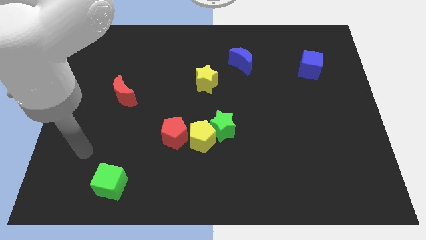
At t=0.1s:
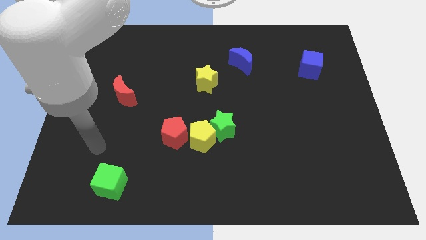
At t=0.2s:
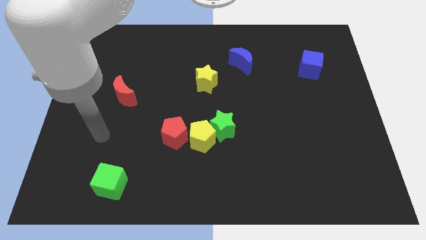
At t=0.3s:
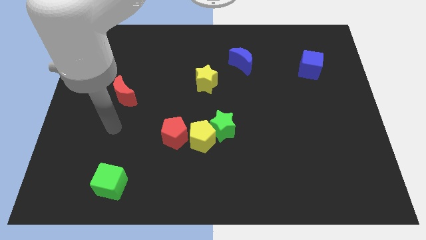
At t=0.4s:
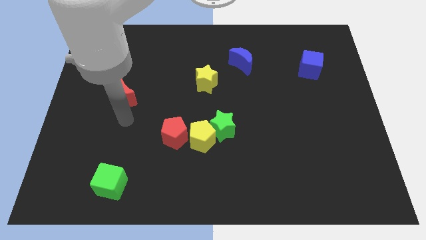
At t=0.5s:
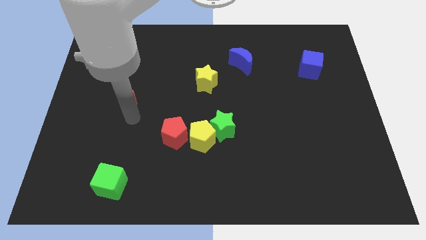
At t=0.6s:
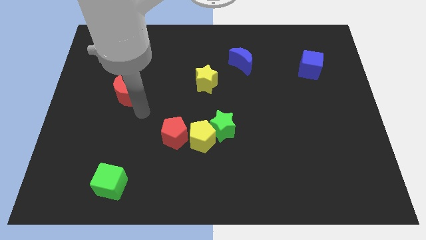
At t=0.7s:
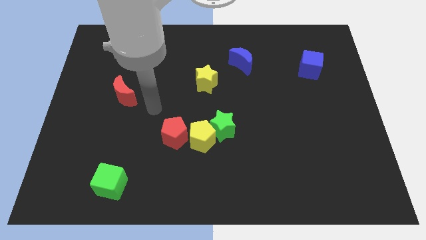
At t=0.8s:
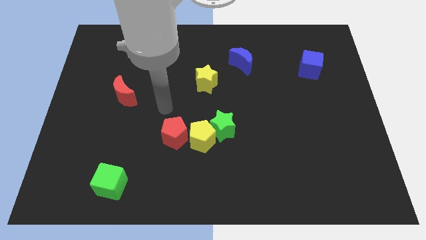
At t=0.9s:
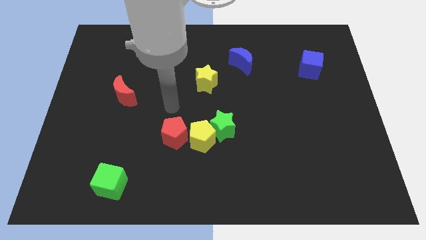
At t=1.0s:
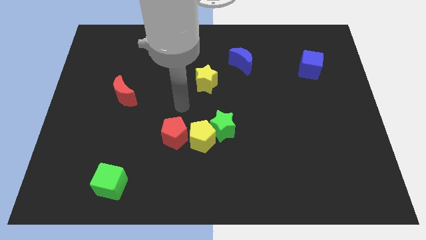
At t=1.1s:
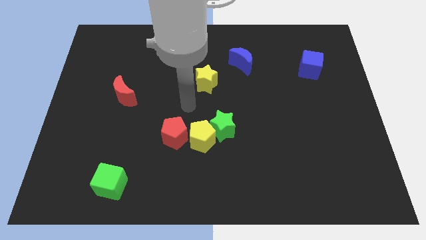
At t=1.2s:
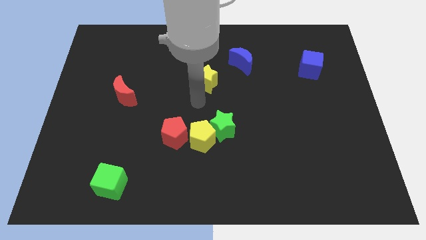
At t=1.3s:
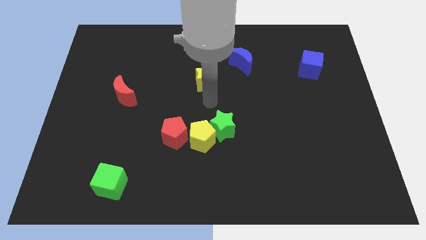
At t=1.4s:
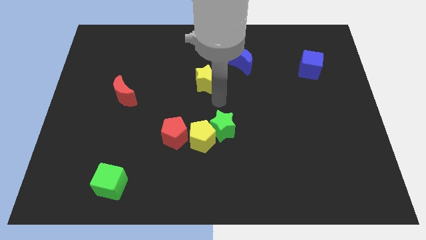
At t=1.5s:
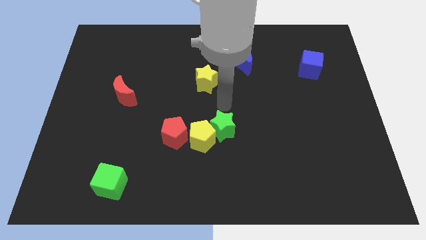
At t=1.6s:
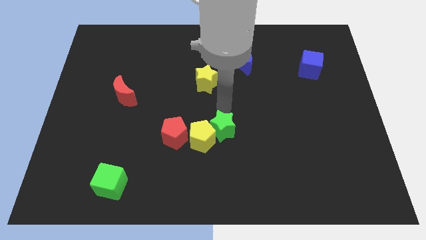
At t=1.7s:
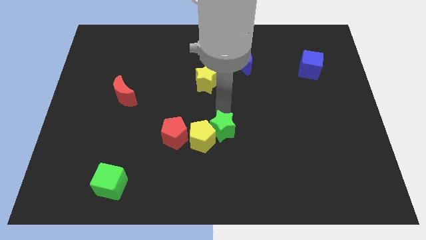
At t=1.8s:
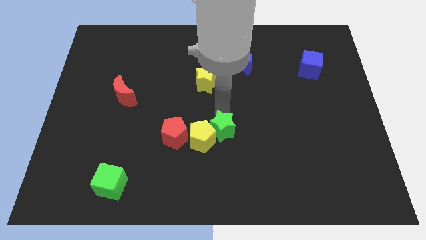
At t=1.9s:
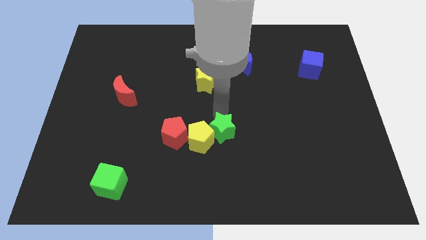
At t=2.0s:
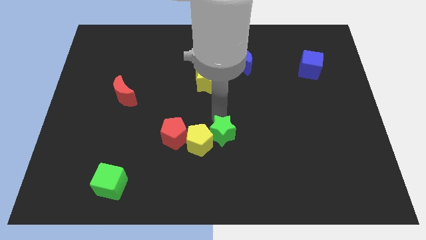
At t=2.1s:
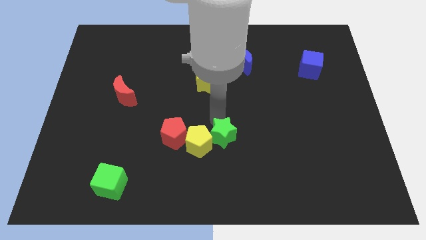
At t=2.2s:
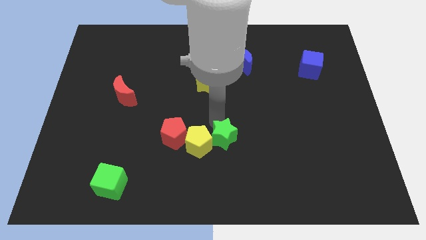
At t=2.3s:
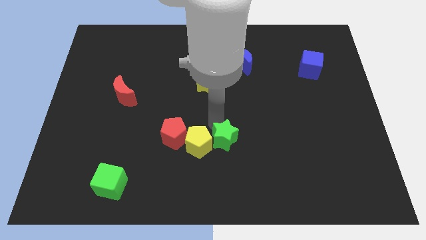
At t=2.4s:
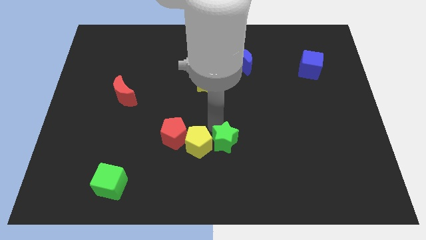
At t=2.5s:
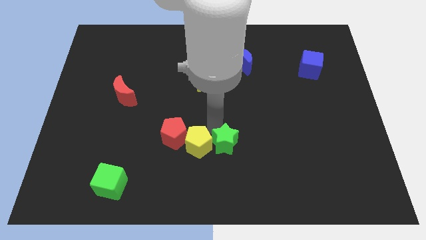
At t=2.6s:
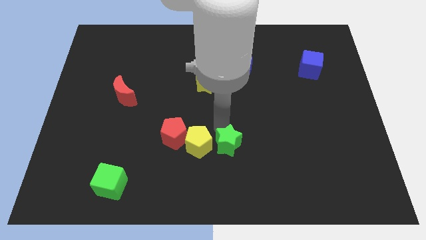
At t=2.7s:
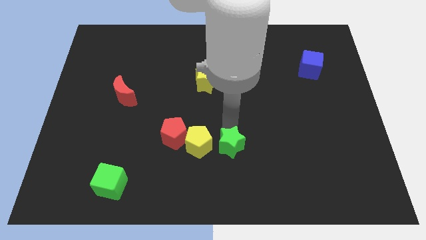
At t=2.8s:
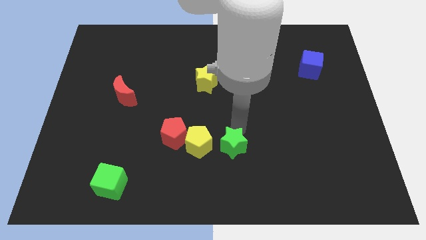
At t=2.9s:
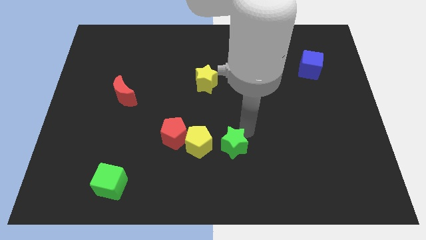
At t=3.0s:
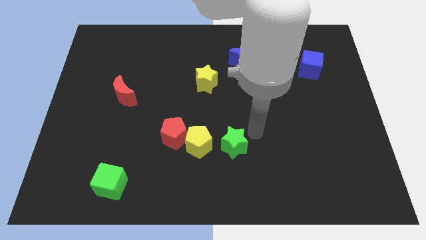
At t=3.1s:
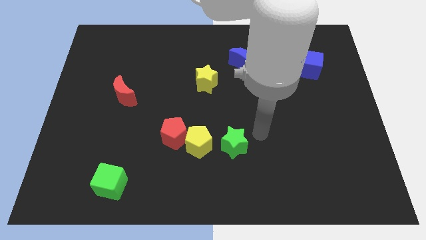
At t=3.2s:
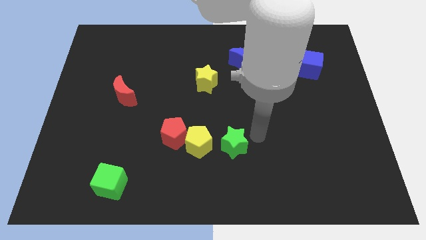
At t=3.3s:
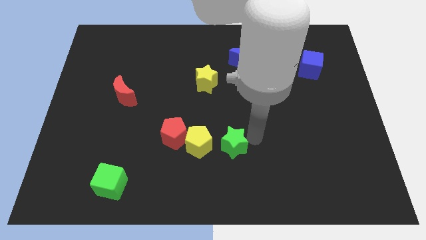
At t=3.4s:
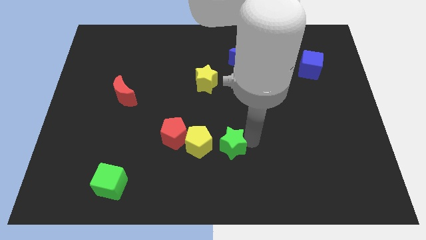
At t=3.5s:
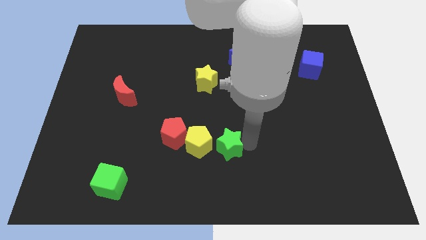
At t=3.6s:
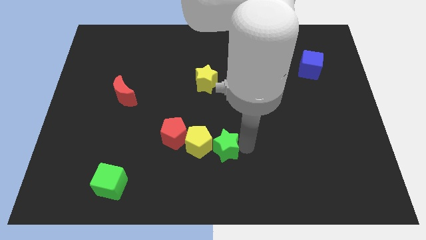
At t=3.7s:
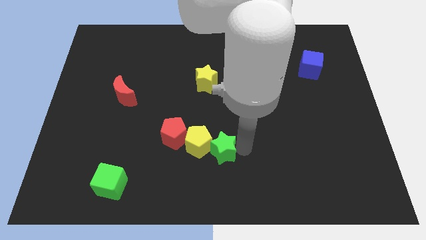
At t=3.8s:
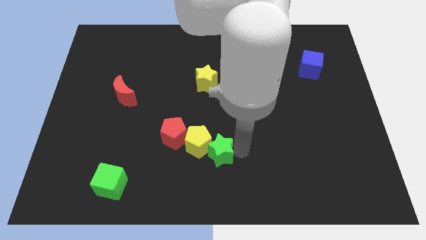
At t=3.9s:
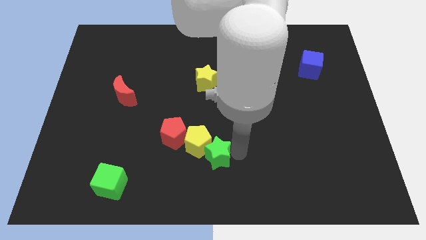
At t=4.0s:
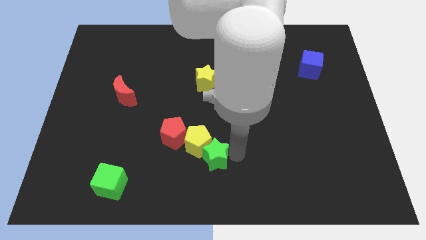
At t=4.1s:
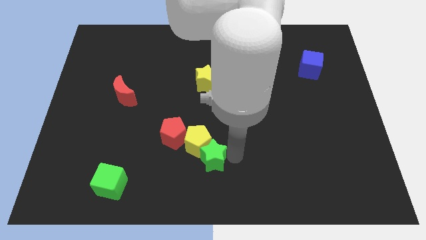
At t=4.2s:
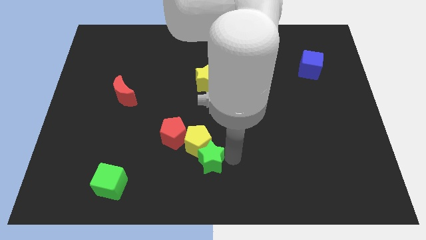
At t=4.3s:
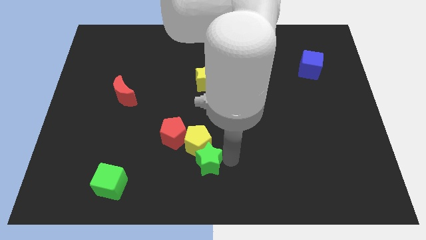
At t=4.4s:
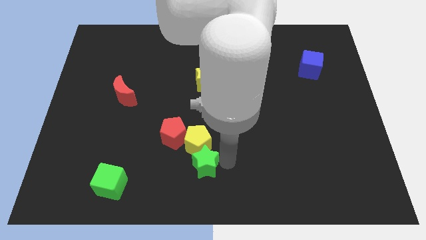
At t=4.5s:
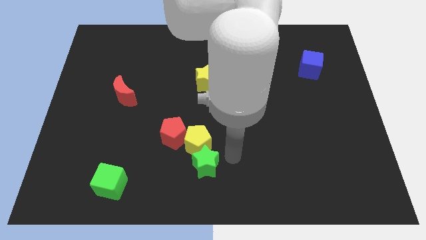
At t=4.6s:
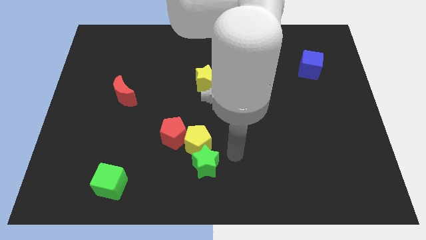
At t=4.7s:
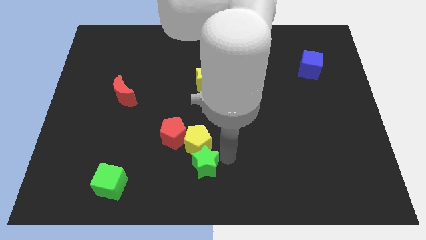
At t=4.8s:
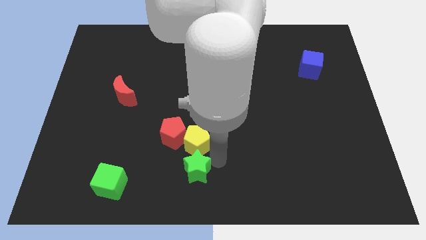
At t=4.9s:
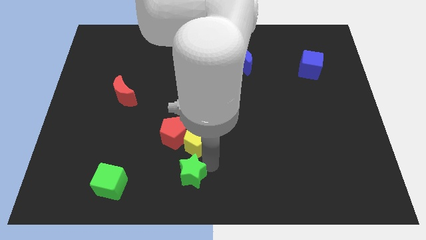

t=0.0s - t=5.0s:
put the green star to the bottom side of the red pentagon

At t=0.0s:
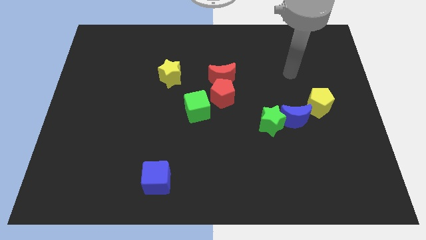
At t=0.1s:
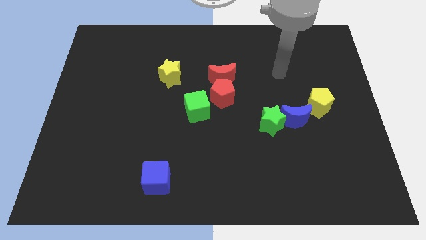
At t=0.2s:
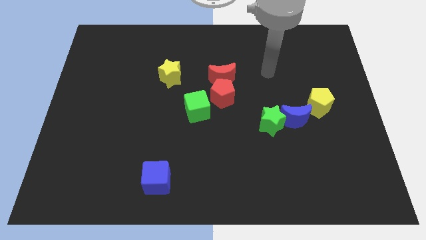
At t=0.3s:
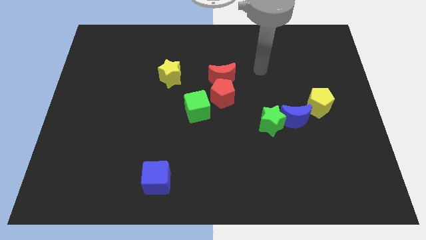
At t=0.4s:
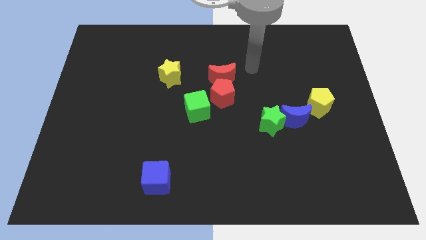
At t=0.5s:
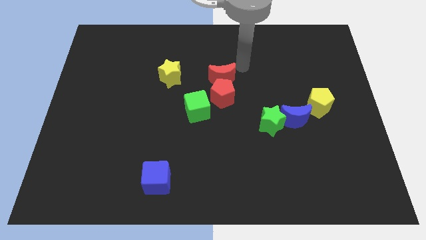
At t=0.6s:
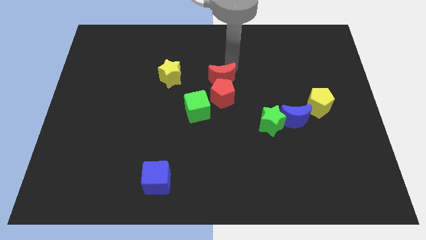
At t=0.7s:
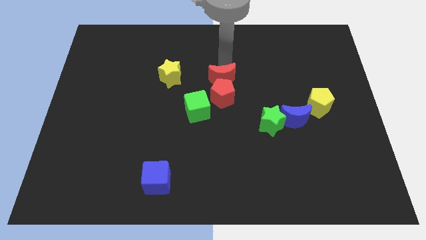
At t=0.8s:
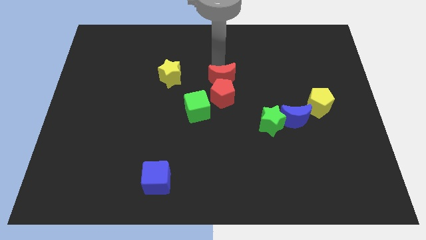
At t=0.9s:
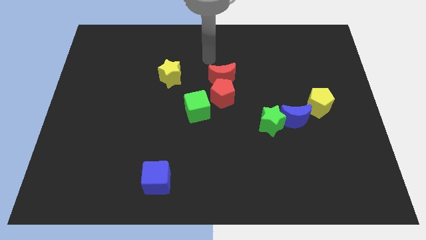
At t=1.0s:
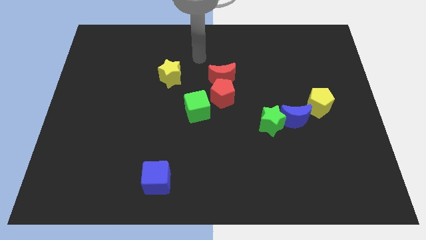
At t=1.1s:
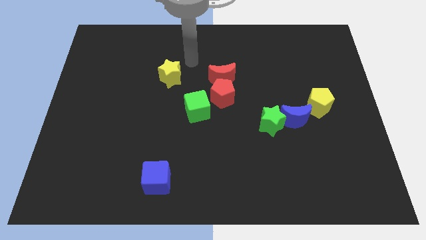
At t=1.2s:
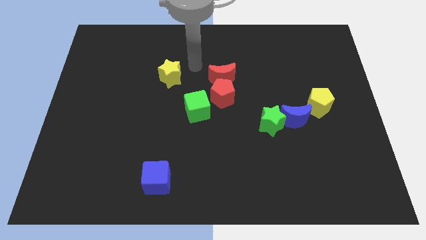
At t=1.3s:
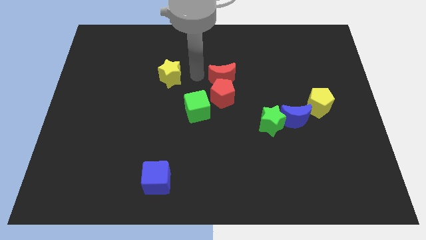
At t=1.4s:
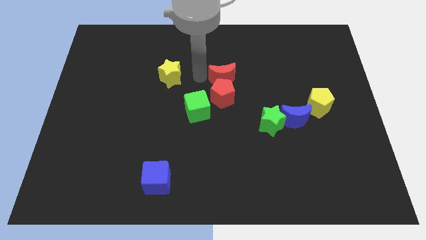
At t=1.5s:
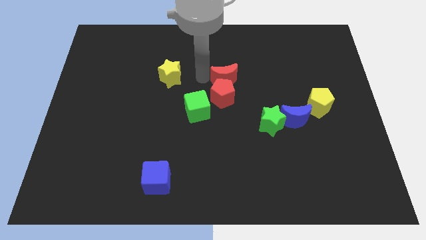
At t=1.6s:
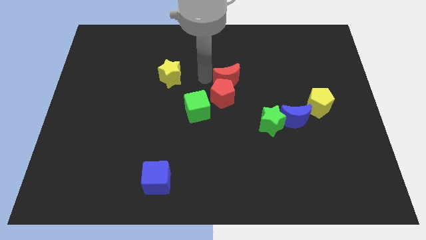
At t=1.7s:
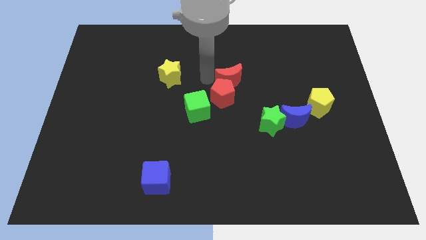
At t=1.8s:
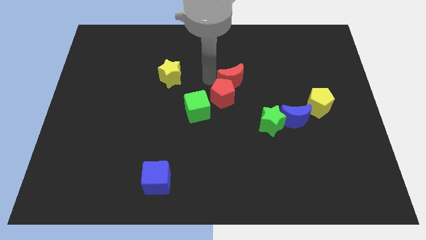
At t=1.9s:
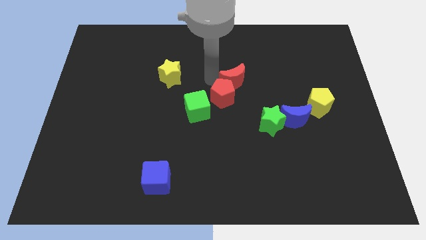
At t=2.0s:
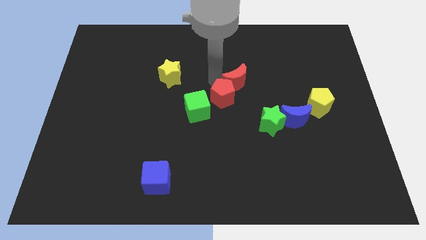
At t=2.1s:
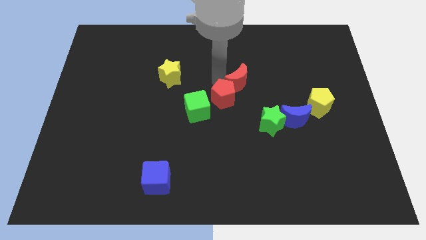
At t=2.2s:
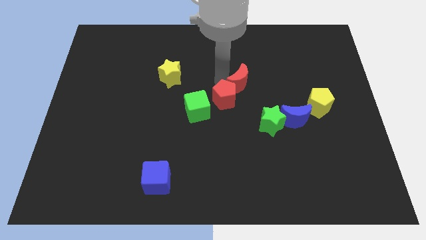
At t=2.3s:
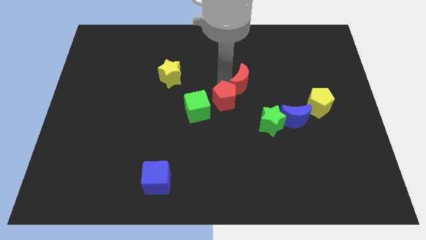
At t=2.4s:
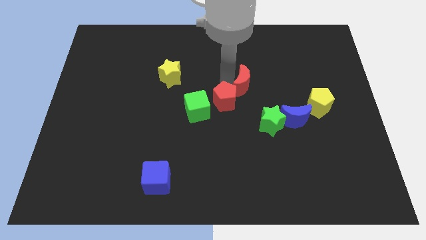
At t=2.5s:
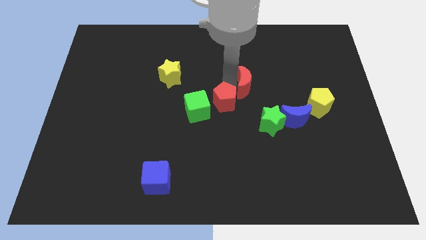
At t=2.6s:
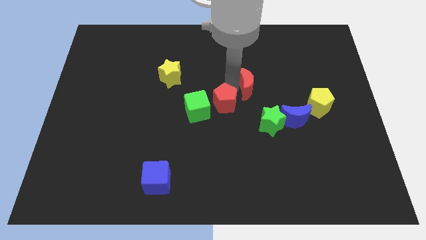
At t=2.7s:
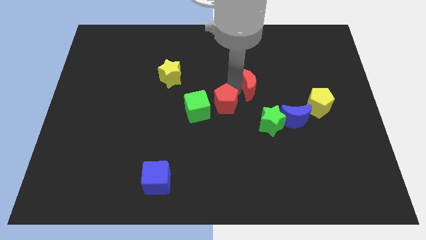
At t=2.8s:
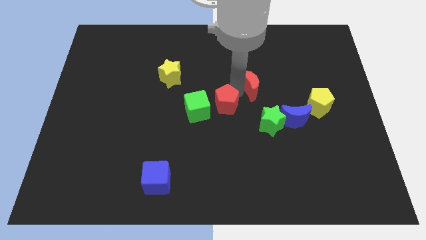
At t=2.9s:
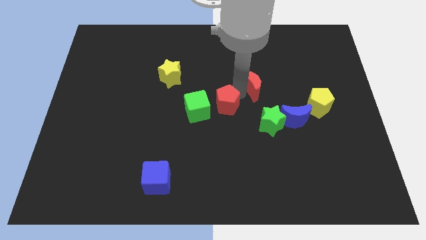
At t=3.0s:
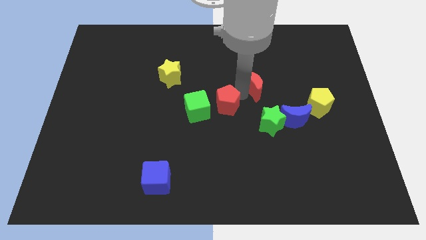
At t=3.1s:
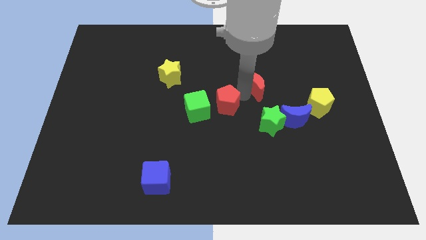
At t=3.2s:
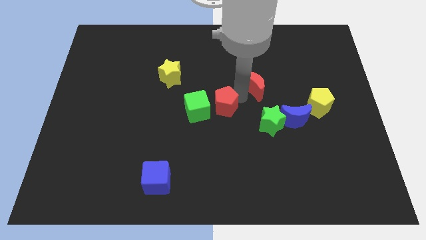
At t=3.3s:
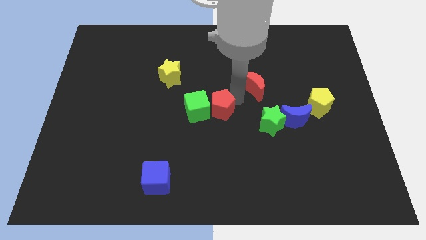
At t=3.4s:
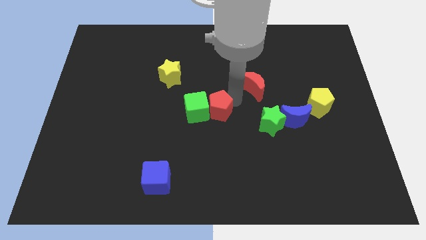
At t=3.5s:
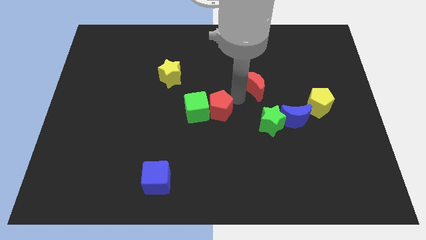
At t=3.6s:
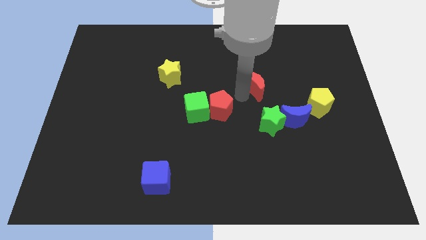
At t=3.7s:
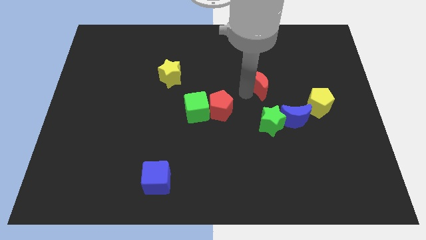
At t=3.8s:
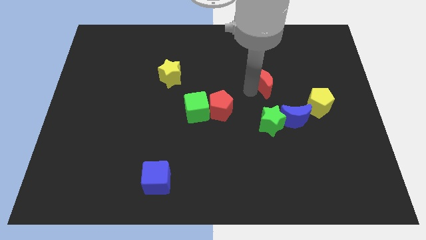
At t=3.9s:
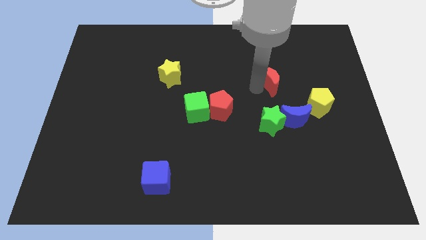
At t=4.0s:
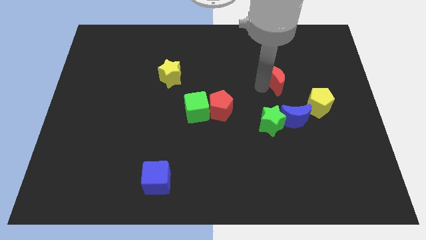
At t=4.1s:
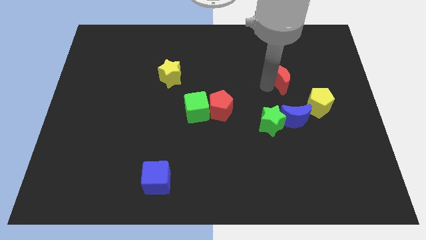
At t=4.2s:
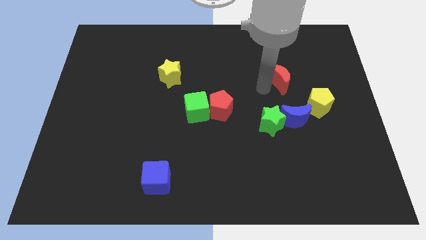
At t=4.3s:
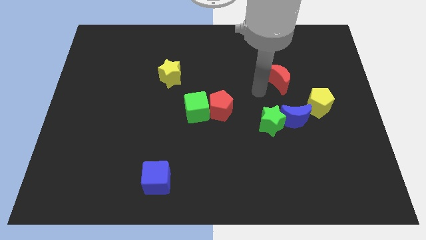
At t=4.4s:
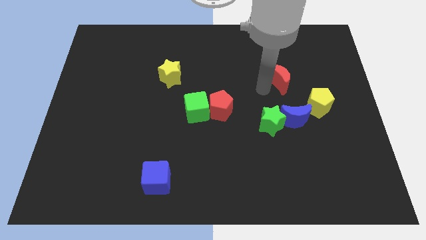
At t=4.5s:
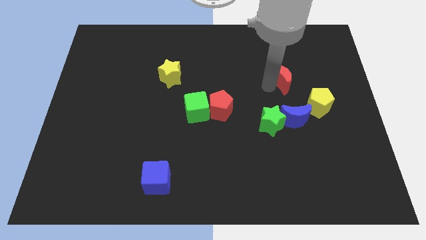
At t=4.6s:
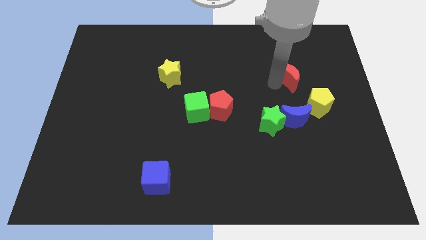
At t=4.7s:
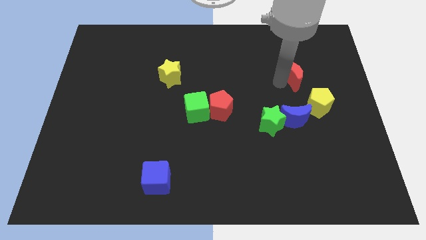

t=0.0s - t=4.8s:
push the red moon to the top of the yellow pentagon
